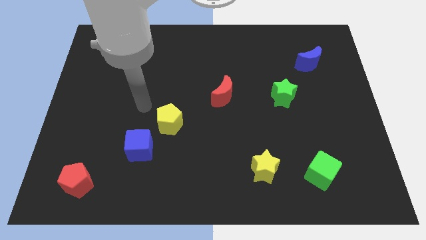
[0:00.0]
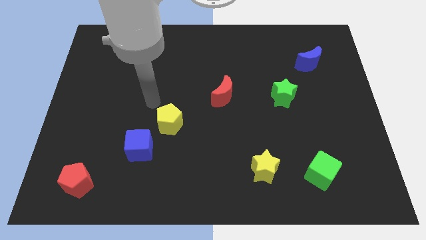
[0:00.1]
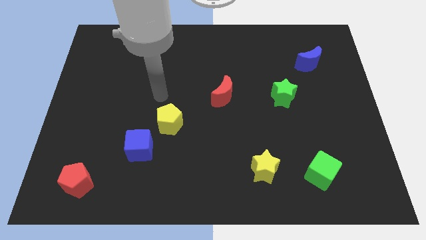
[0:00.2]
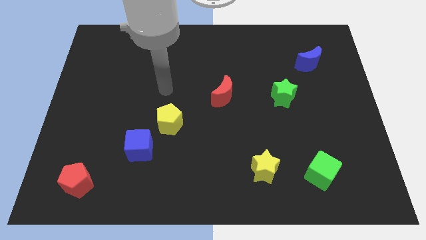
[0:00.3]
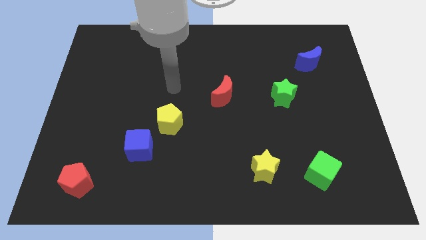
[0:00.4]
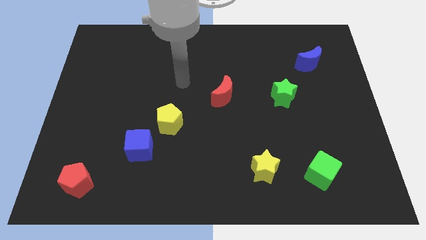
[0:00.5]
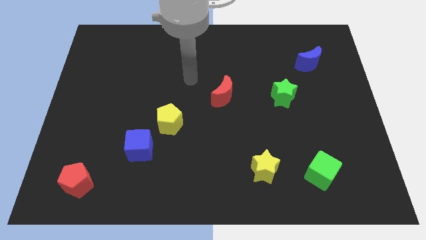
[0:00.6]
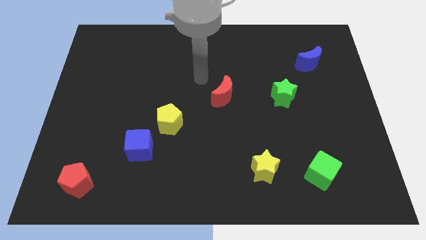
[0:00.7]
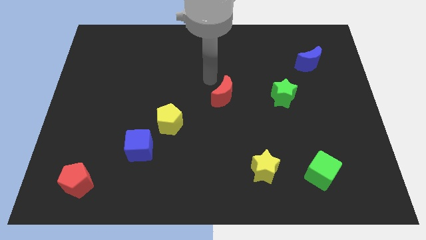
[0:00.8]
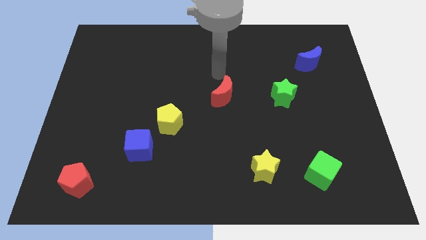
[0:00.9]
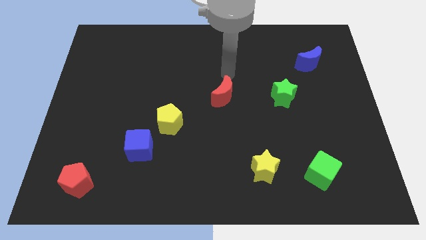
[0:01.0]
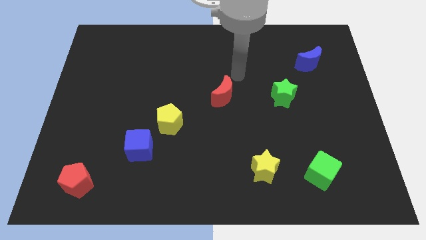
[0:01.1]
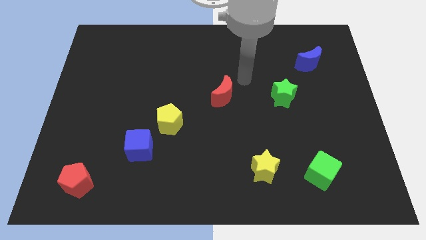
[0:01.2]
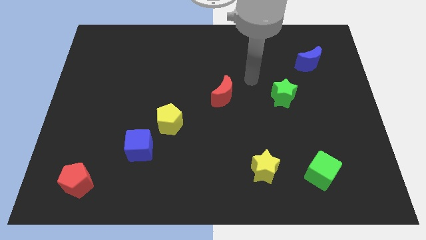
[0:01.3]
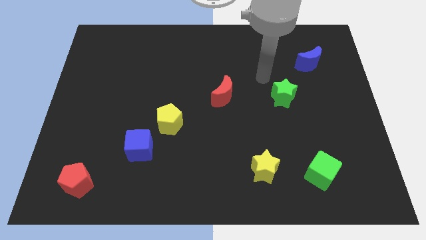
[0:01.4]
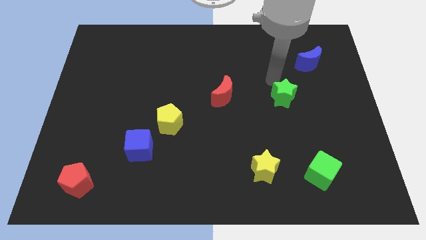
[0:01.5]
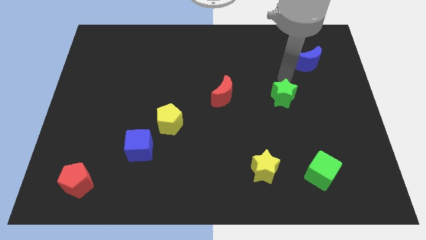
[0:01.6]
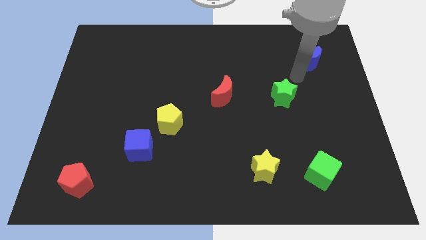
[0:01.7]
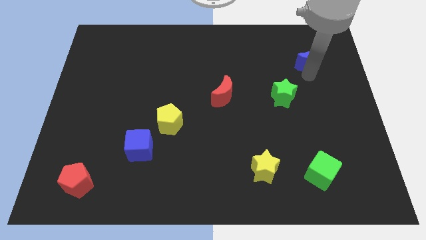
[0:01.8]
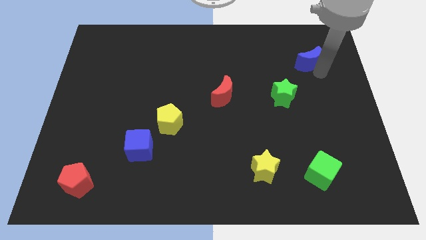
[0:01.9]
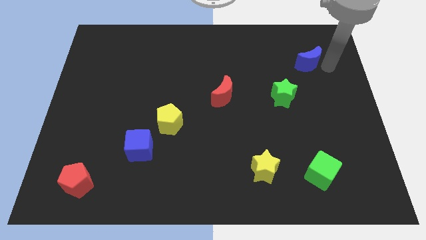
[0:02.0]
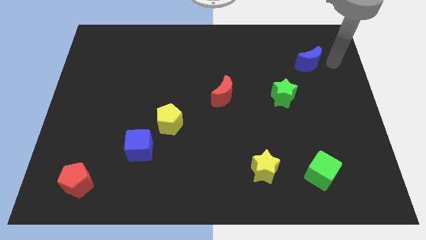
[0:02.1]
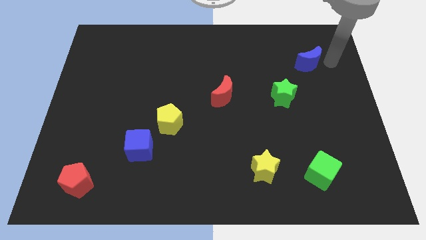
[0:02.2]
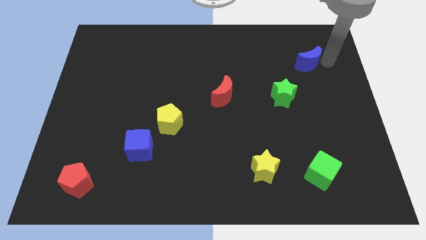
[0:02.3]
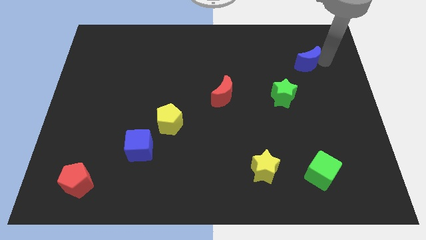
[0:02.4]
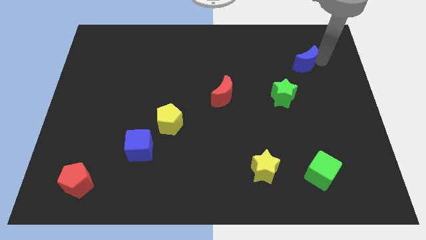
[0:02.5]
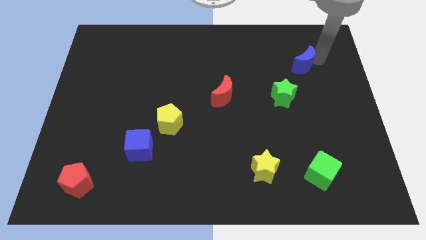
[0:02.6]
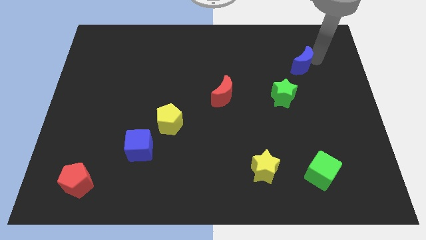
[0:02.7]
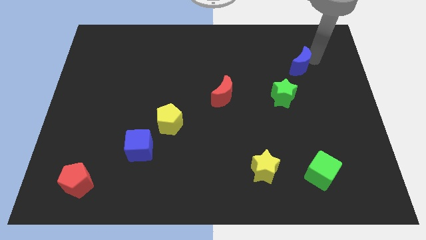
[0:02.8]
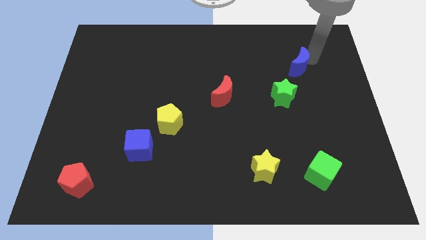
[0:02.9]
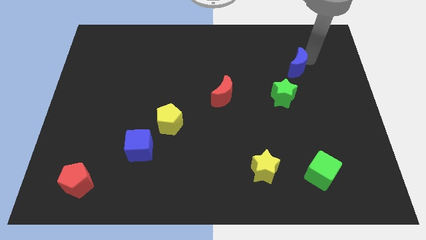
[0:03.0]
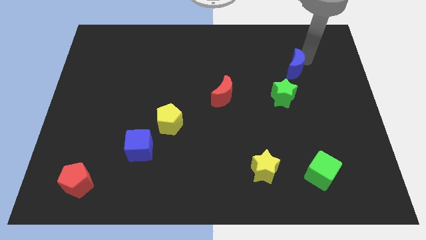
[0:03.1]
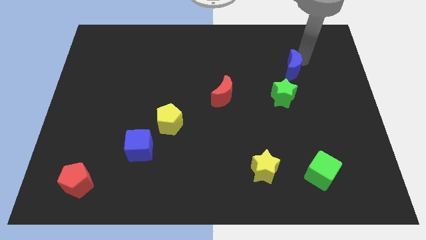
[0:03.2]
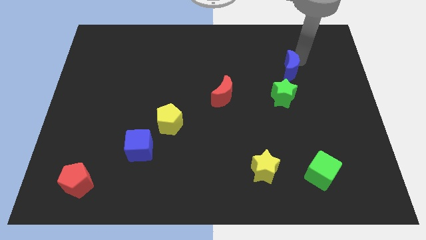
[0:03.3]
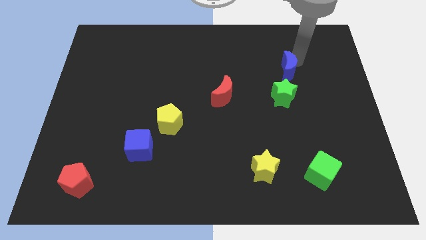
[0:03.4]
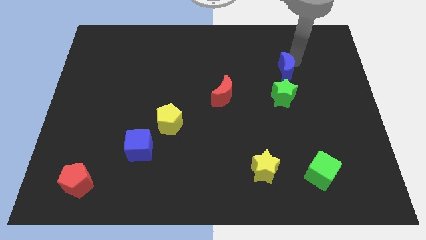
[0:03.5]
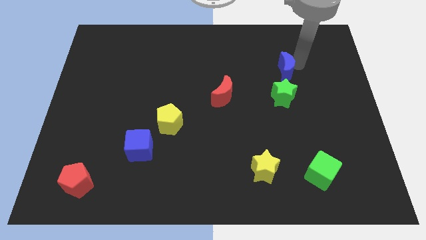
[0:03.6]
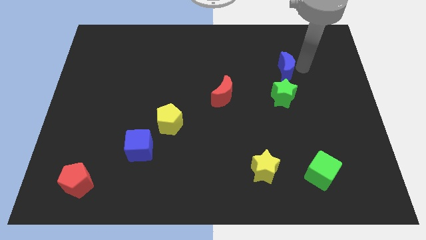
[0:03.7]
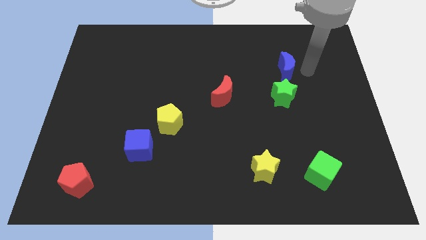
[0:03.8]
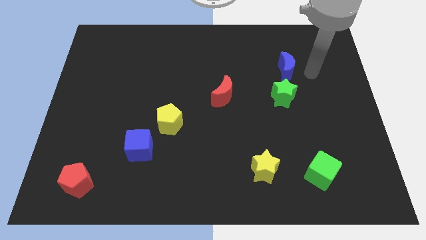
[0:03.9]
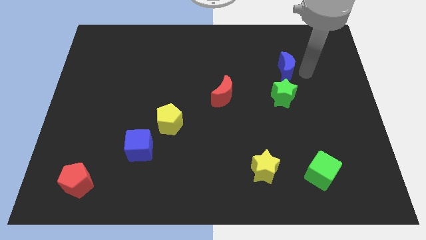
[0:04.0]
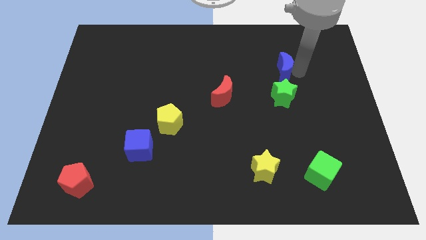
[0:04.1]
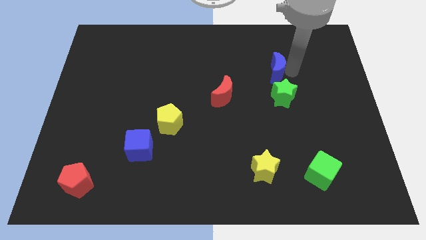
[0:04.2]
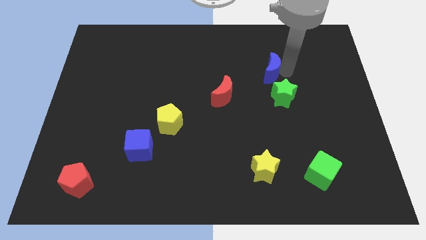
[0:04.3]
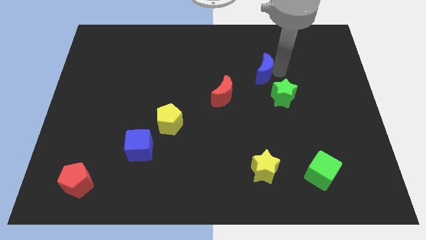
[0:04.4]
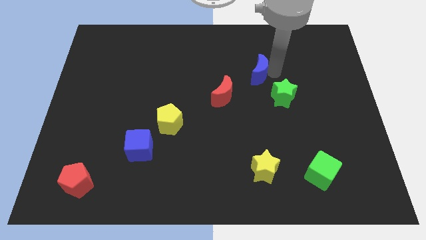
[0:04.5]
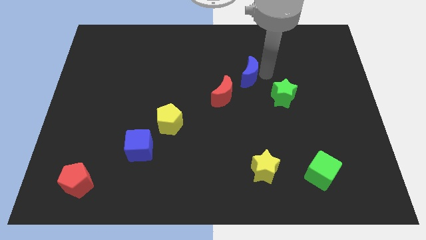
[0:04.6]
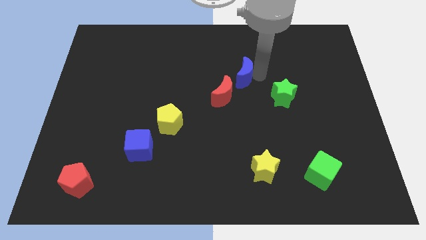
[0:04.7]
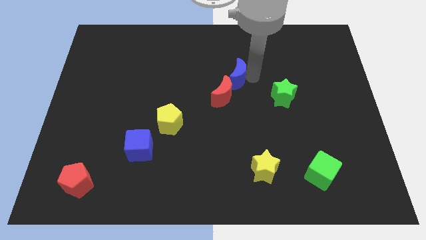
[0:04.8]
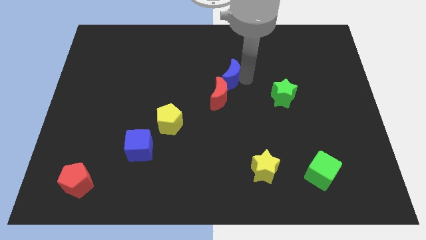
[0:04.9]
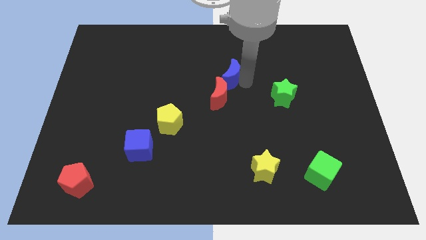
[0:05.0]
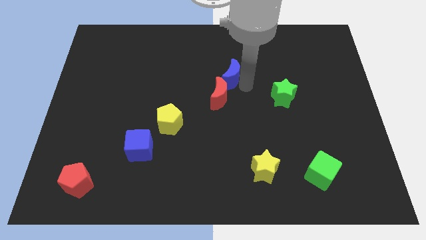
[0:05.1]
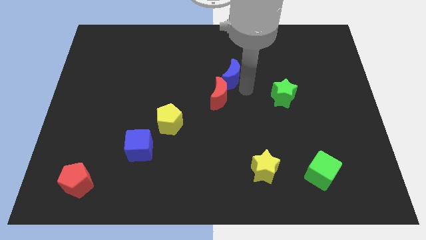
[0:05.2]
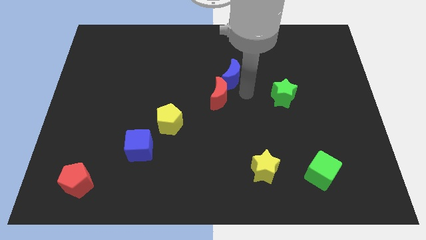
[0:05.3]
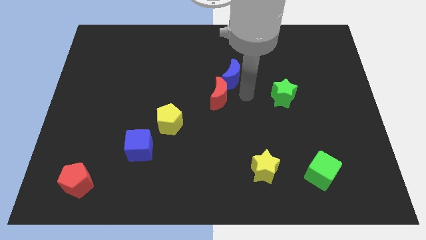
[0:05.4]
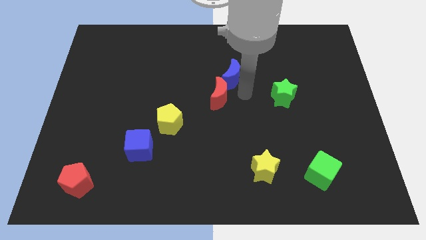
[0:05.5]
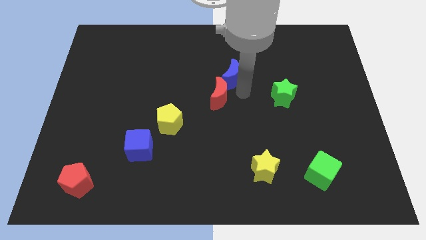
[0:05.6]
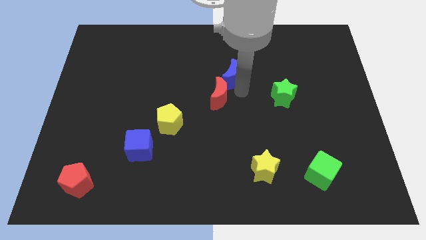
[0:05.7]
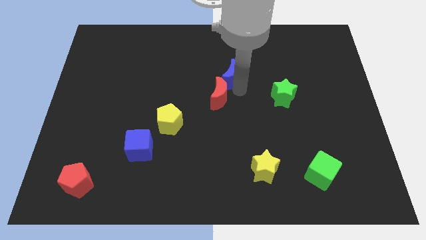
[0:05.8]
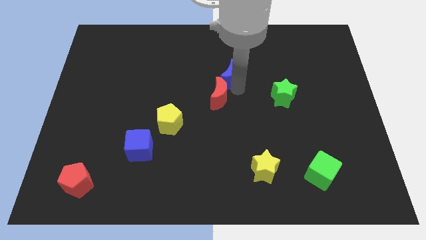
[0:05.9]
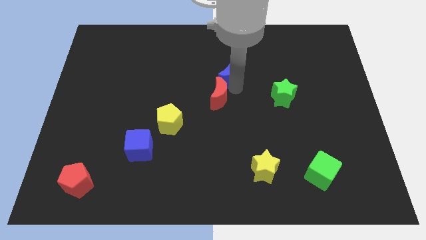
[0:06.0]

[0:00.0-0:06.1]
move the blue moon left

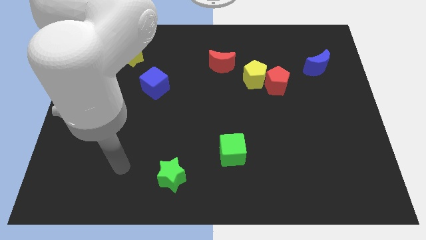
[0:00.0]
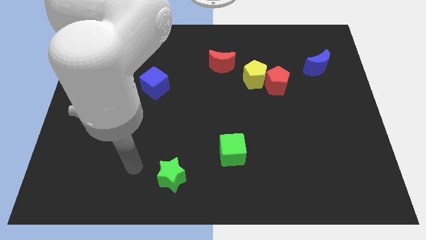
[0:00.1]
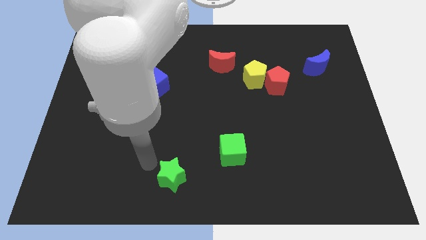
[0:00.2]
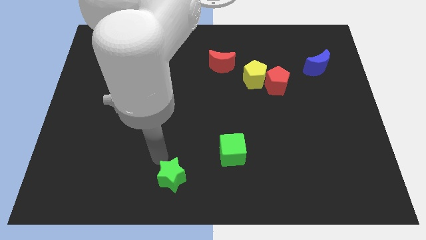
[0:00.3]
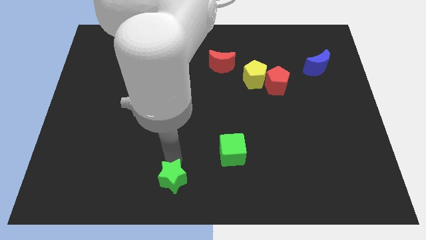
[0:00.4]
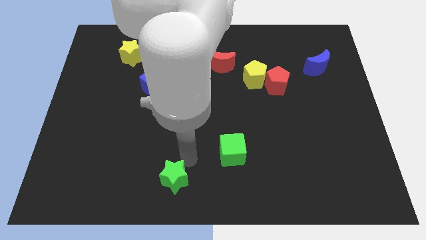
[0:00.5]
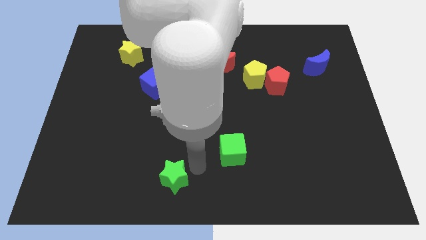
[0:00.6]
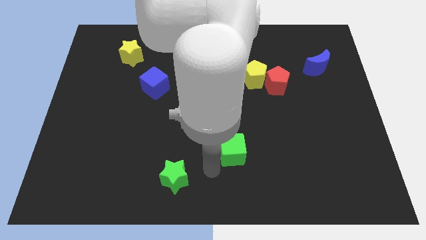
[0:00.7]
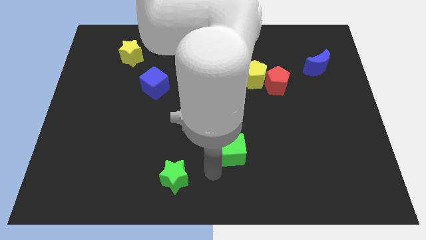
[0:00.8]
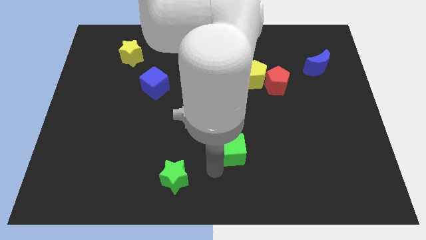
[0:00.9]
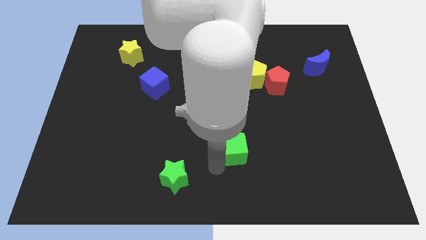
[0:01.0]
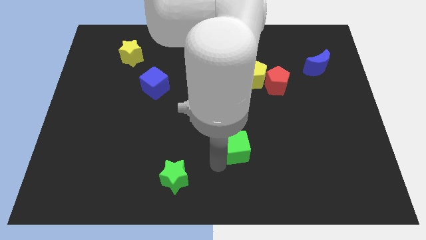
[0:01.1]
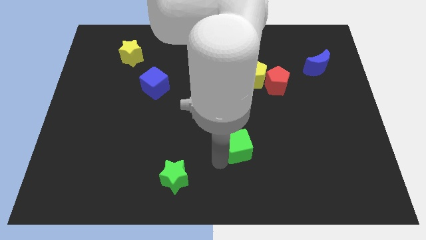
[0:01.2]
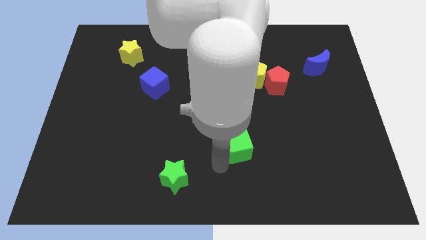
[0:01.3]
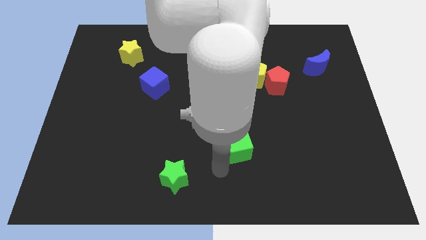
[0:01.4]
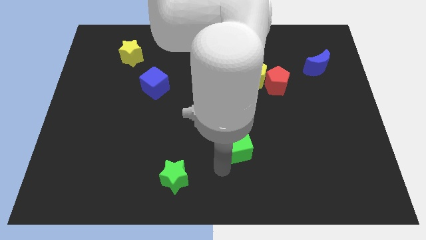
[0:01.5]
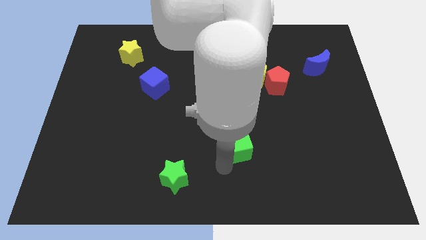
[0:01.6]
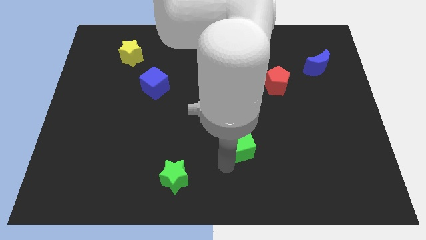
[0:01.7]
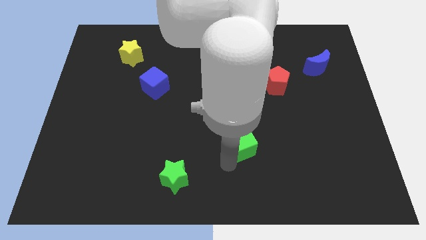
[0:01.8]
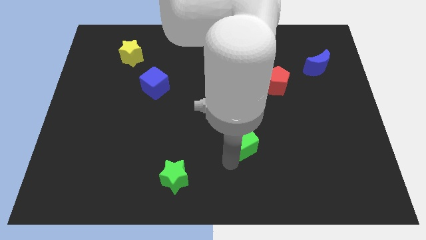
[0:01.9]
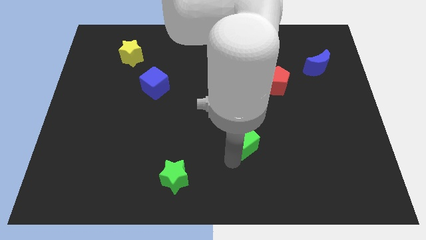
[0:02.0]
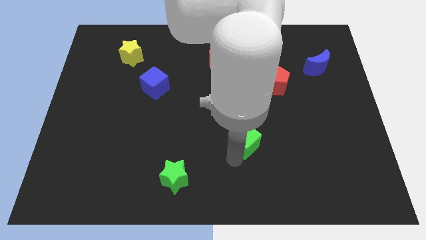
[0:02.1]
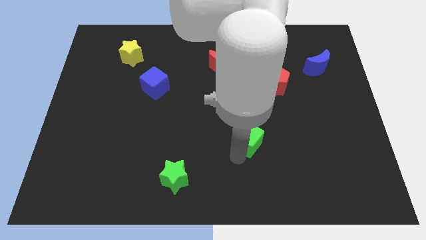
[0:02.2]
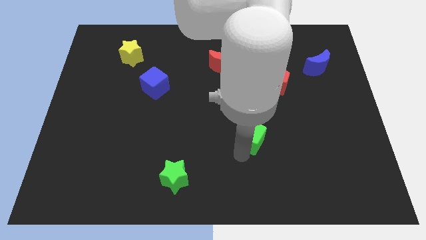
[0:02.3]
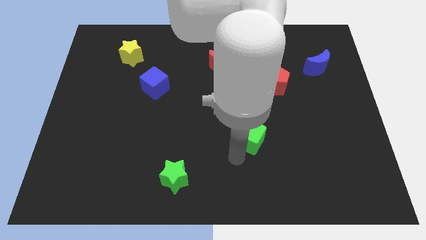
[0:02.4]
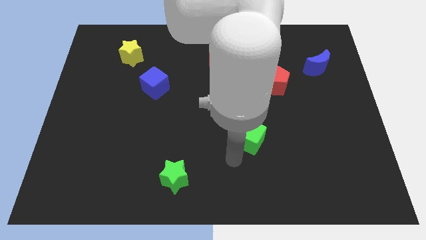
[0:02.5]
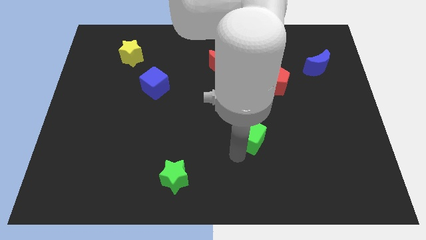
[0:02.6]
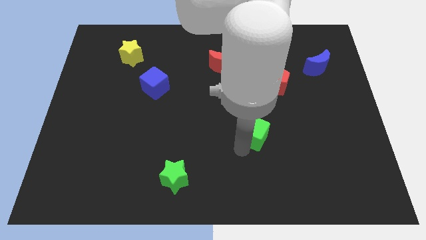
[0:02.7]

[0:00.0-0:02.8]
slide the green cube a little bit up and to the right
